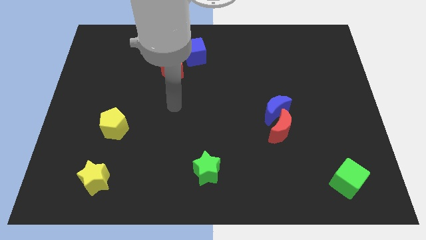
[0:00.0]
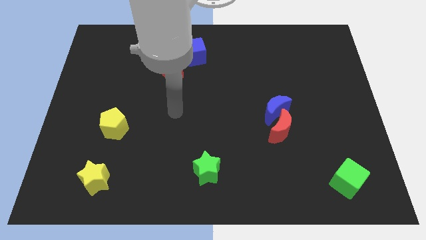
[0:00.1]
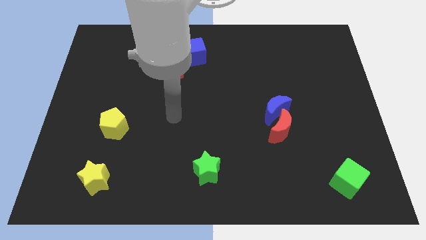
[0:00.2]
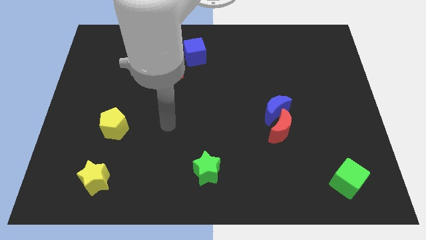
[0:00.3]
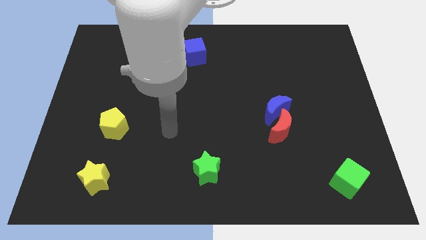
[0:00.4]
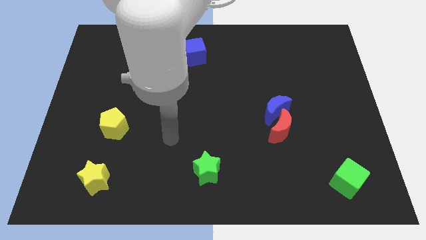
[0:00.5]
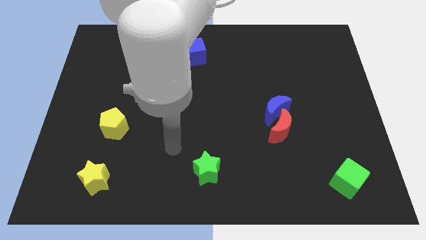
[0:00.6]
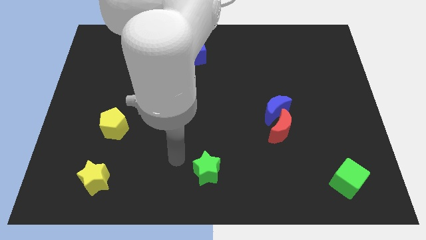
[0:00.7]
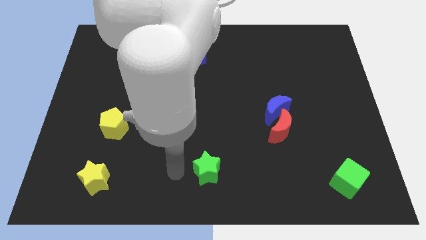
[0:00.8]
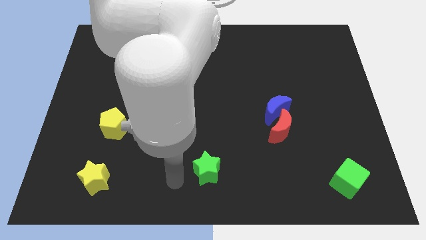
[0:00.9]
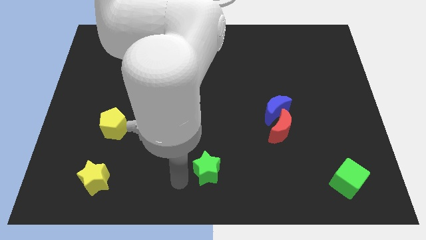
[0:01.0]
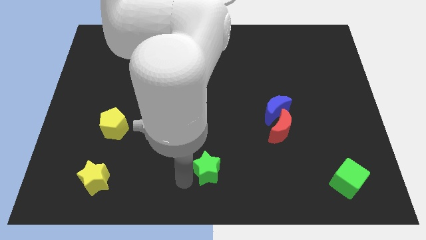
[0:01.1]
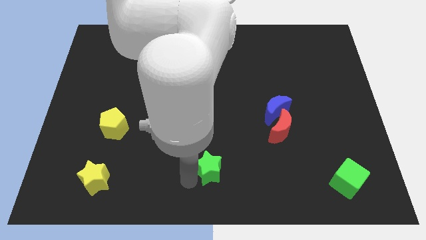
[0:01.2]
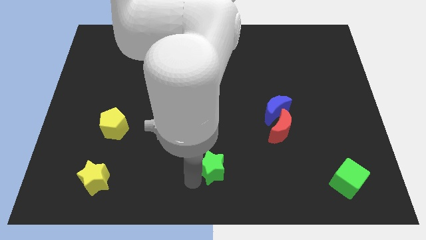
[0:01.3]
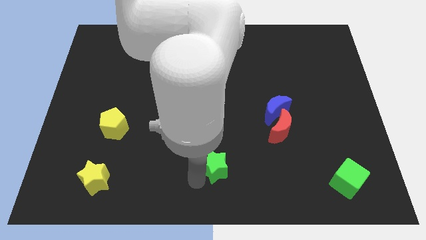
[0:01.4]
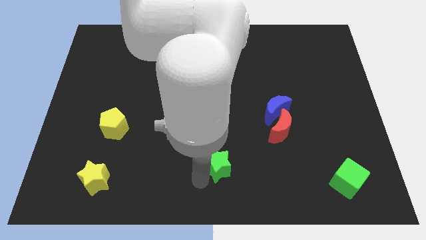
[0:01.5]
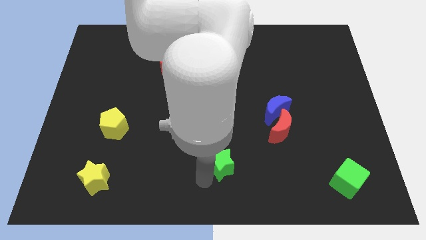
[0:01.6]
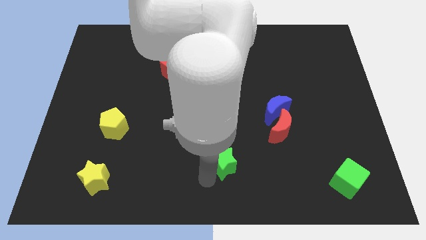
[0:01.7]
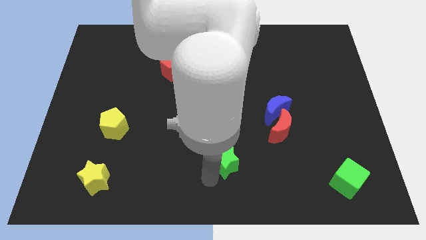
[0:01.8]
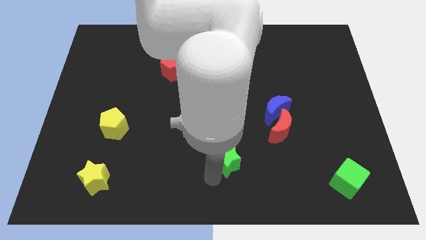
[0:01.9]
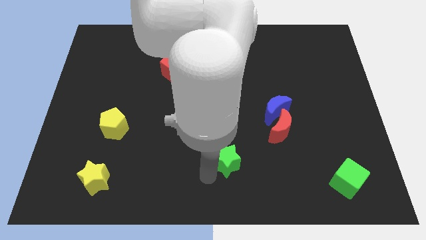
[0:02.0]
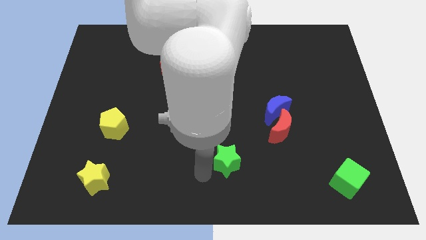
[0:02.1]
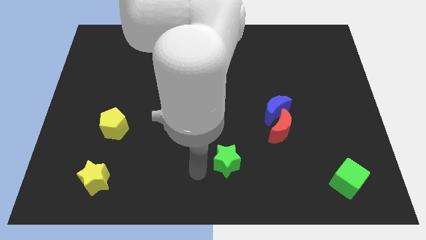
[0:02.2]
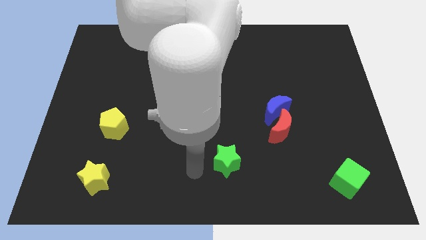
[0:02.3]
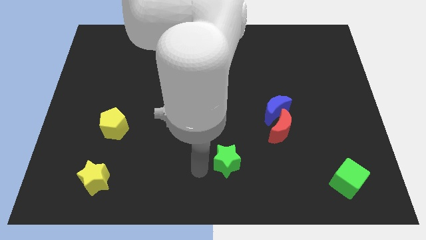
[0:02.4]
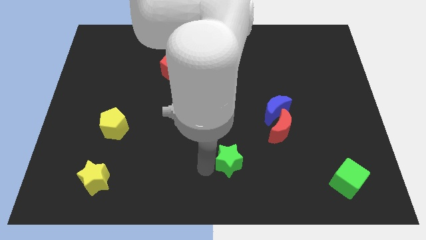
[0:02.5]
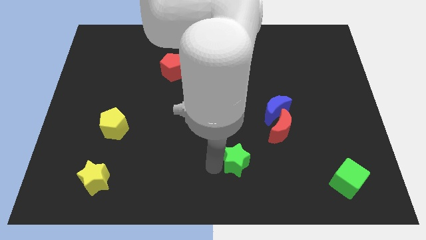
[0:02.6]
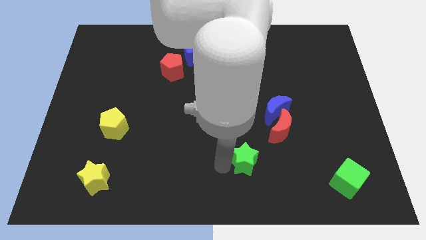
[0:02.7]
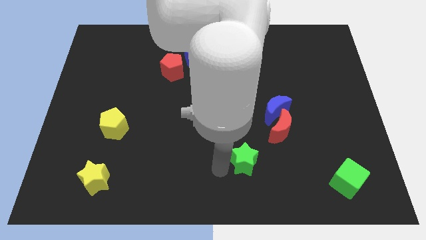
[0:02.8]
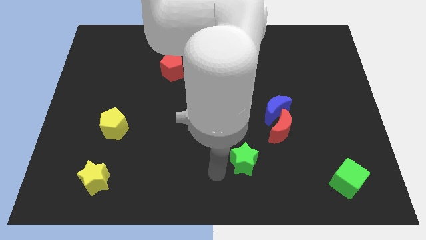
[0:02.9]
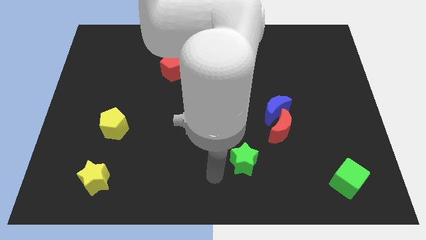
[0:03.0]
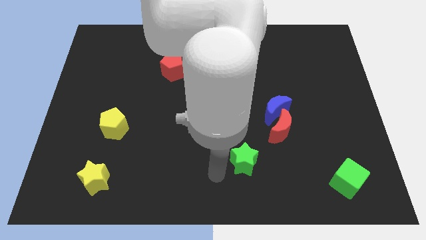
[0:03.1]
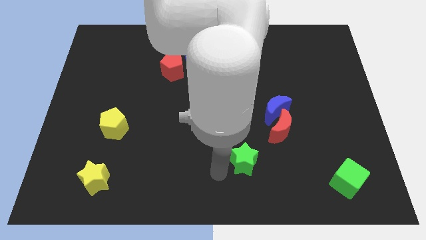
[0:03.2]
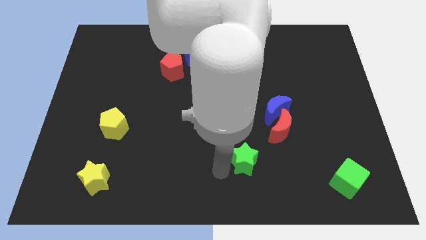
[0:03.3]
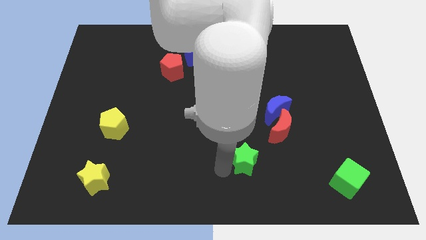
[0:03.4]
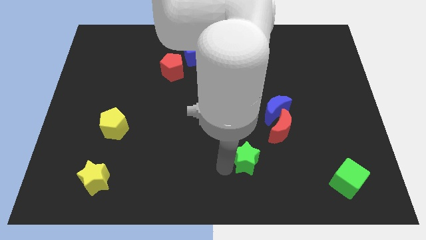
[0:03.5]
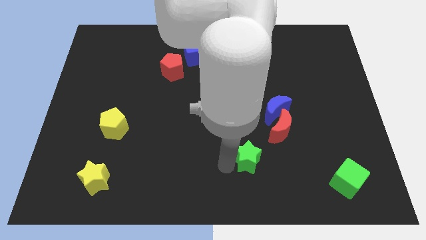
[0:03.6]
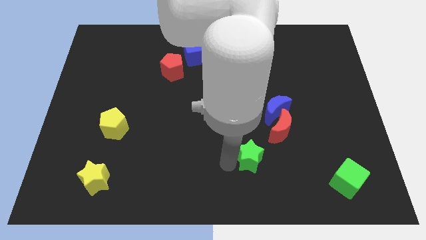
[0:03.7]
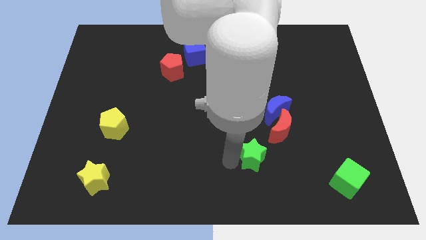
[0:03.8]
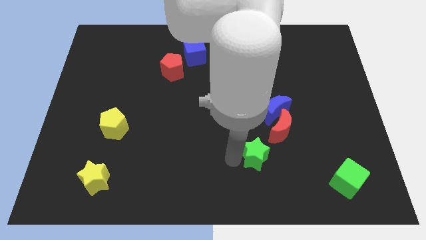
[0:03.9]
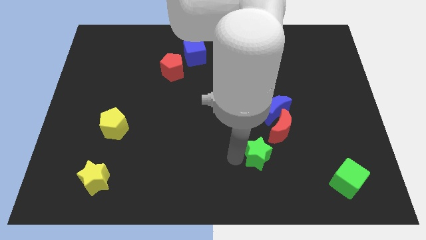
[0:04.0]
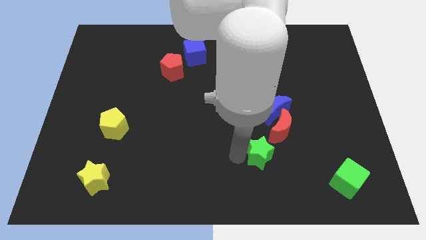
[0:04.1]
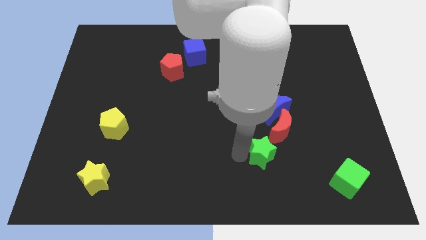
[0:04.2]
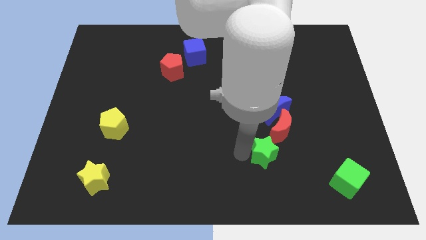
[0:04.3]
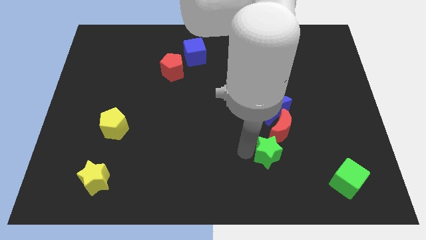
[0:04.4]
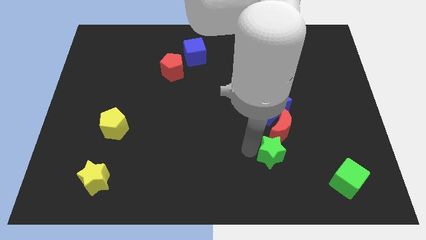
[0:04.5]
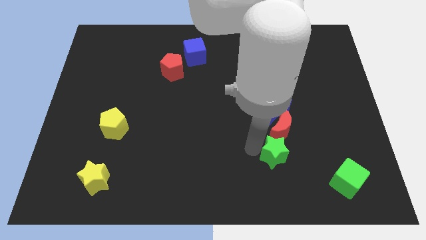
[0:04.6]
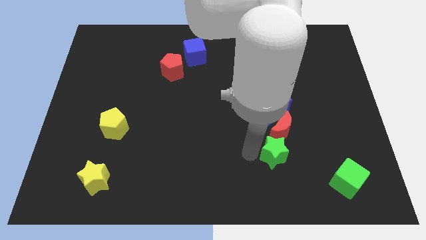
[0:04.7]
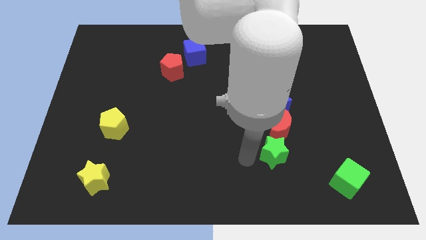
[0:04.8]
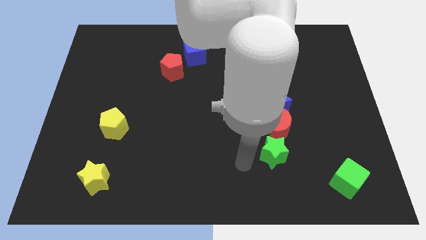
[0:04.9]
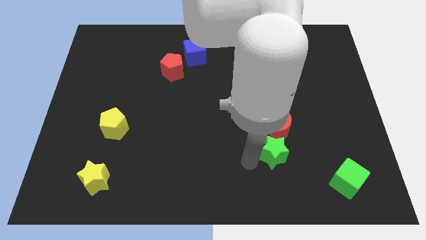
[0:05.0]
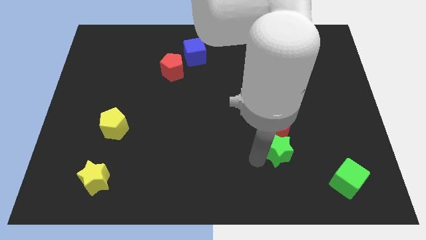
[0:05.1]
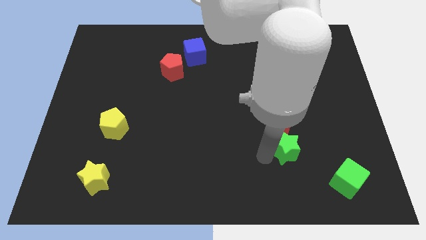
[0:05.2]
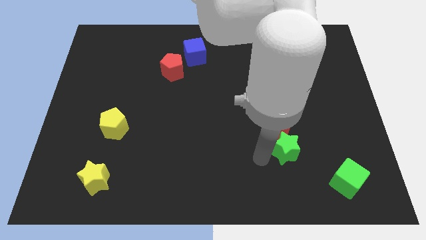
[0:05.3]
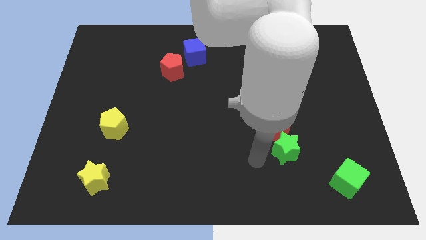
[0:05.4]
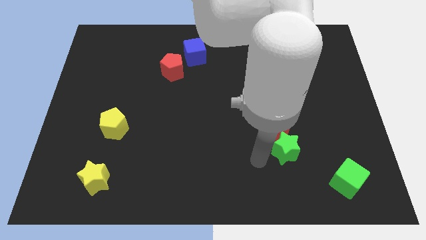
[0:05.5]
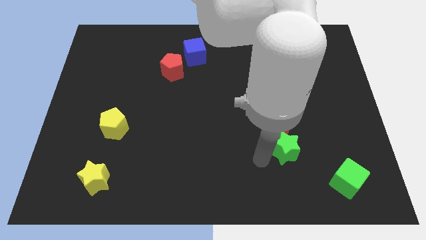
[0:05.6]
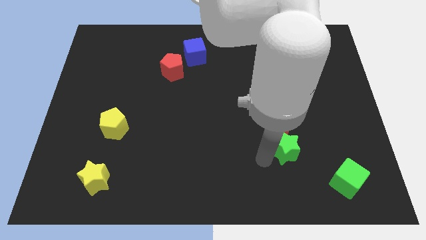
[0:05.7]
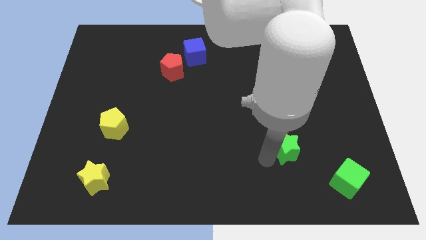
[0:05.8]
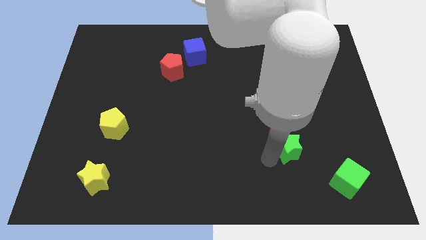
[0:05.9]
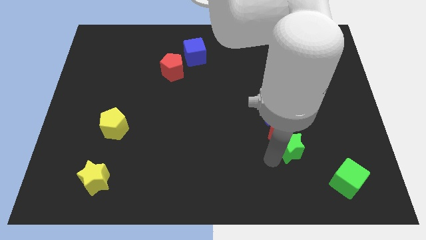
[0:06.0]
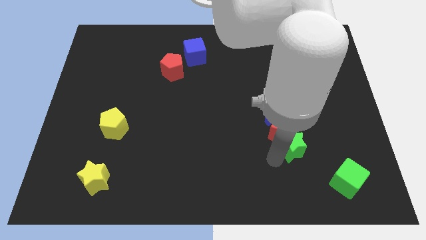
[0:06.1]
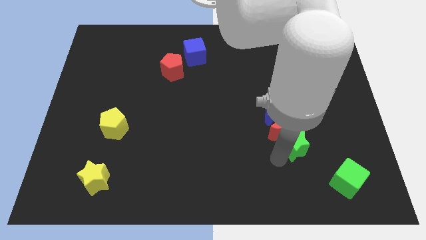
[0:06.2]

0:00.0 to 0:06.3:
push the green star diagonally down and to the right of the blue moon

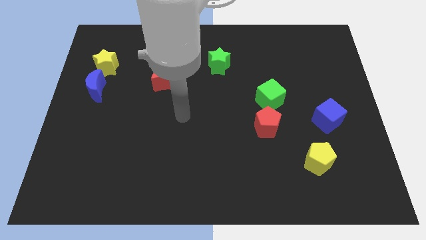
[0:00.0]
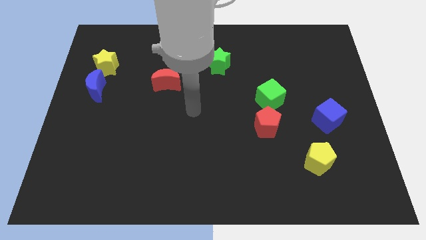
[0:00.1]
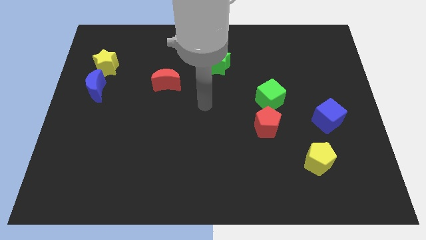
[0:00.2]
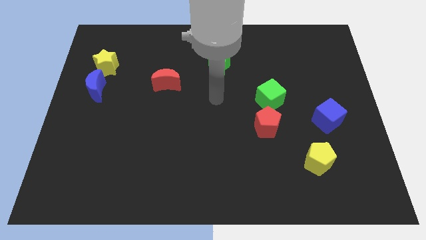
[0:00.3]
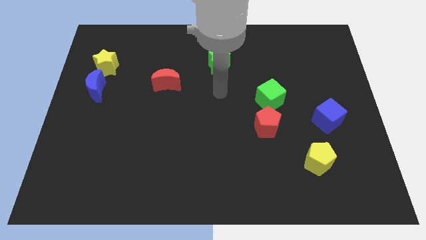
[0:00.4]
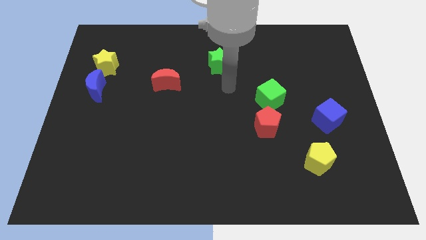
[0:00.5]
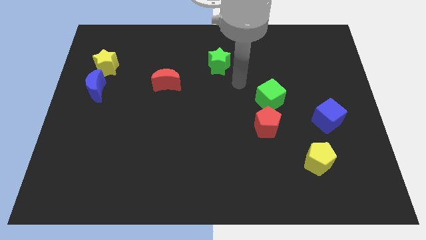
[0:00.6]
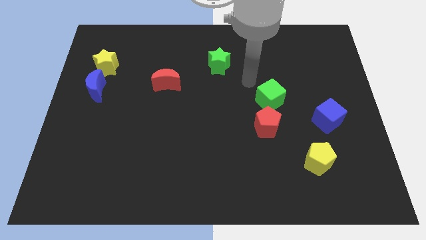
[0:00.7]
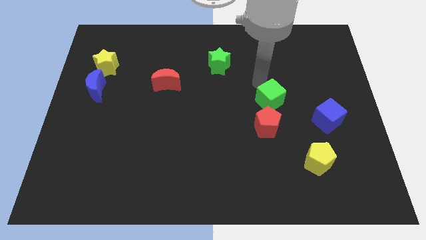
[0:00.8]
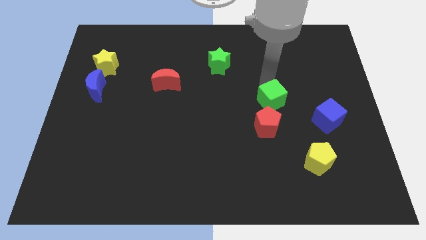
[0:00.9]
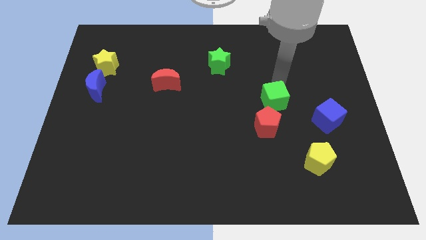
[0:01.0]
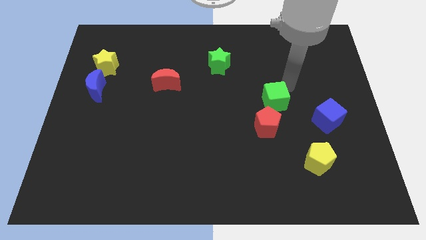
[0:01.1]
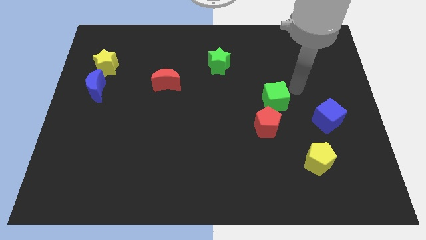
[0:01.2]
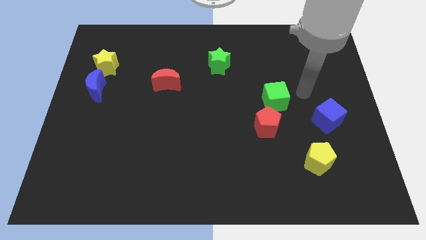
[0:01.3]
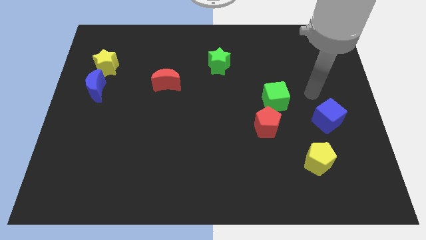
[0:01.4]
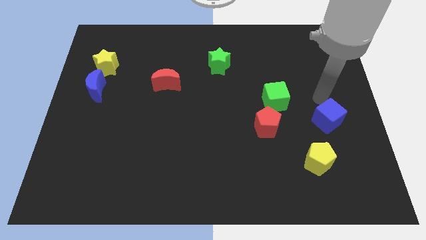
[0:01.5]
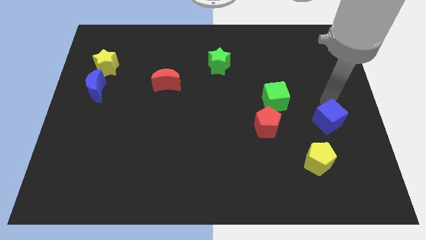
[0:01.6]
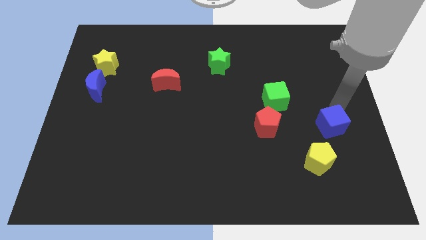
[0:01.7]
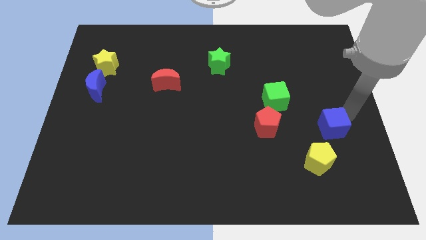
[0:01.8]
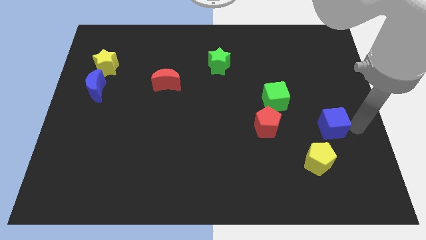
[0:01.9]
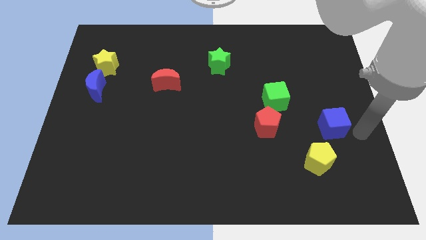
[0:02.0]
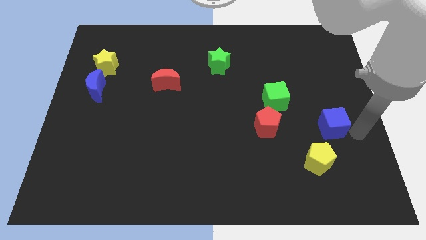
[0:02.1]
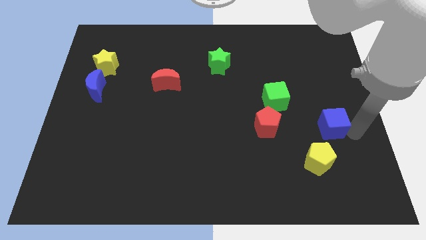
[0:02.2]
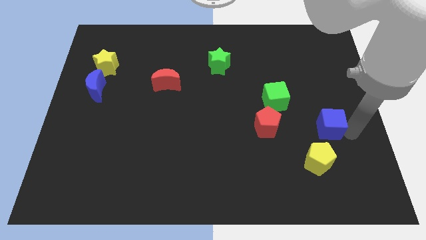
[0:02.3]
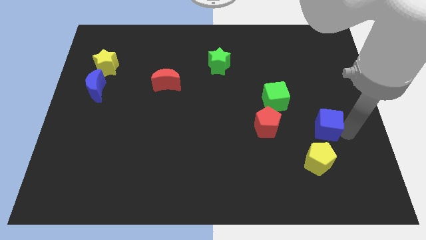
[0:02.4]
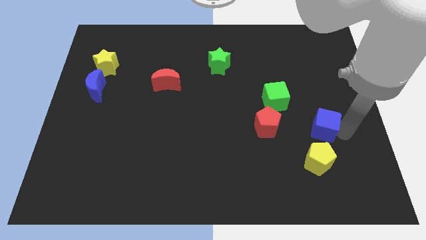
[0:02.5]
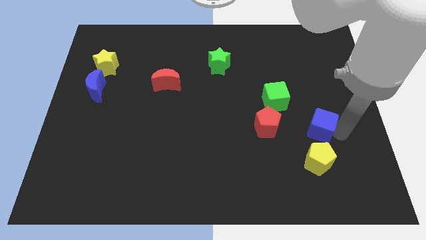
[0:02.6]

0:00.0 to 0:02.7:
push the blue cube to the bottom right side of the green cube
